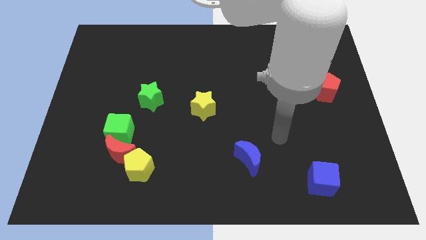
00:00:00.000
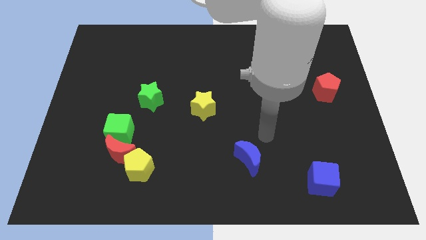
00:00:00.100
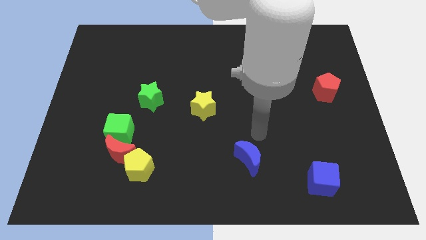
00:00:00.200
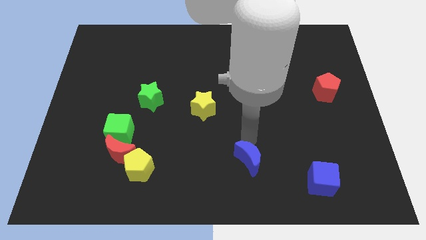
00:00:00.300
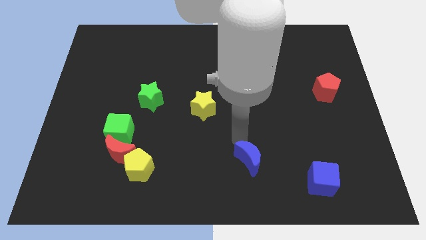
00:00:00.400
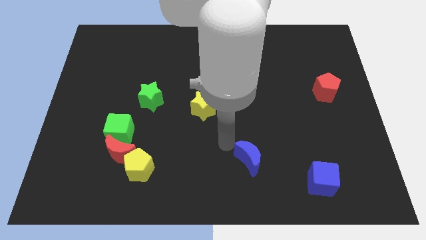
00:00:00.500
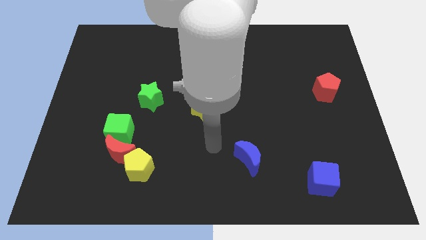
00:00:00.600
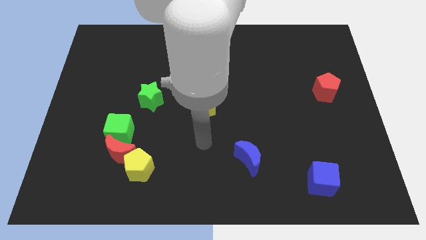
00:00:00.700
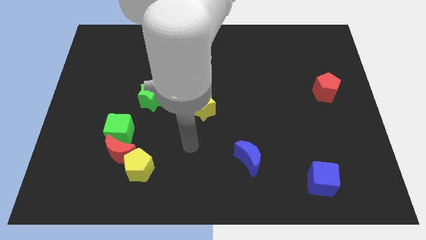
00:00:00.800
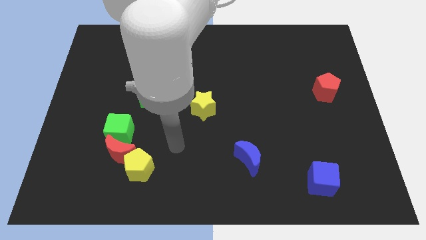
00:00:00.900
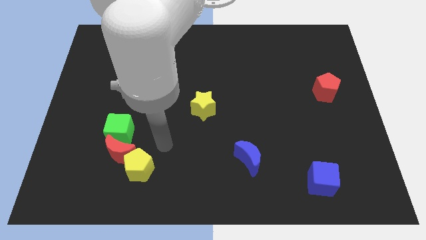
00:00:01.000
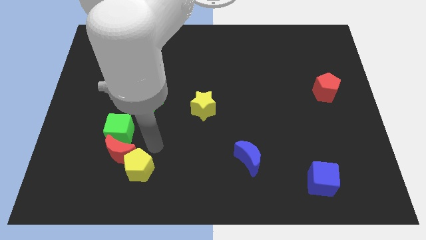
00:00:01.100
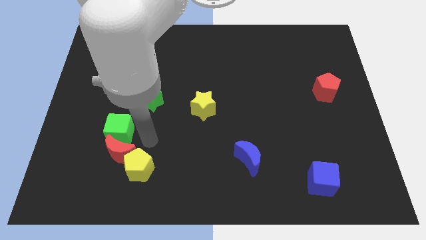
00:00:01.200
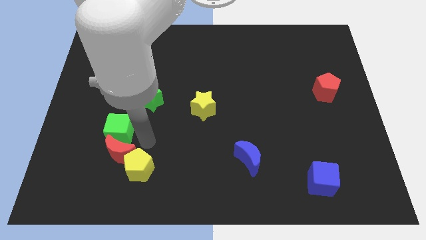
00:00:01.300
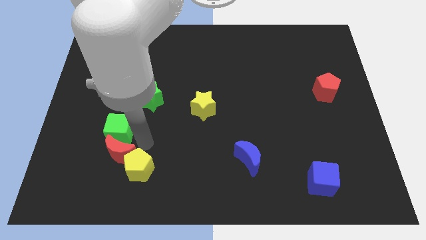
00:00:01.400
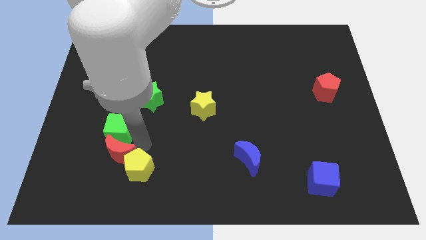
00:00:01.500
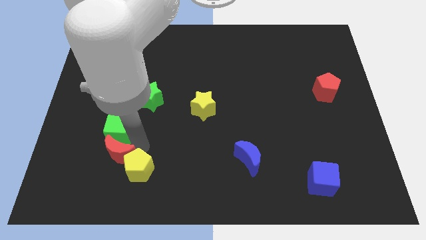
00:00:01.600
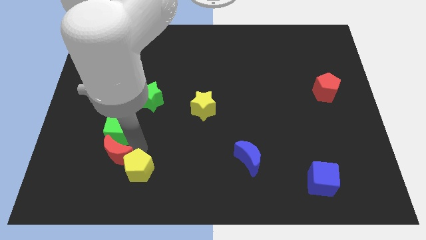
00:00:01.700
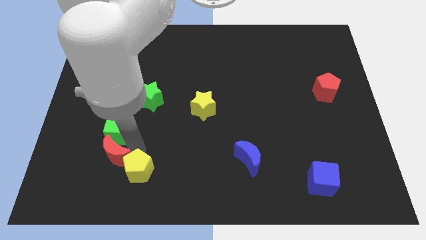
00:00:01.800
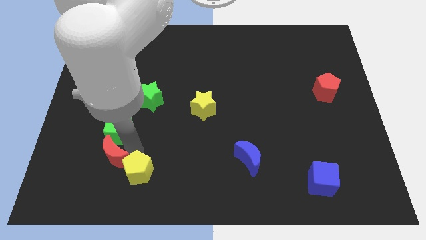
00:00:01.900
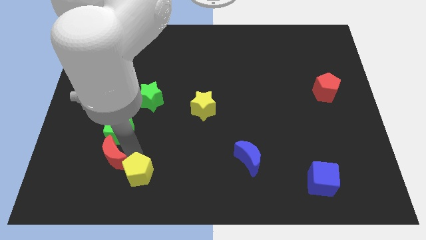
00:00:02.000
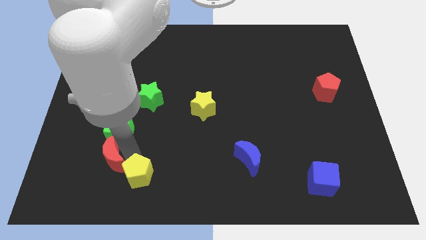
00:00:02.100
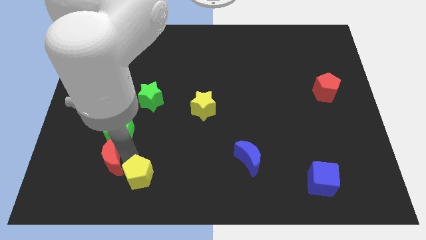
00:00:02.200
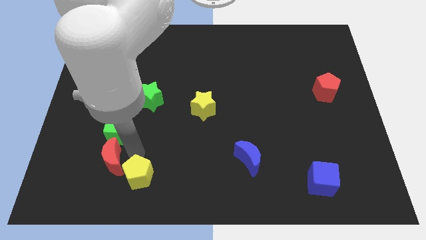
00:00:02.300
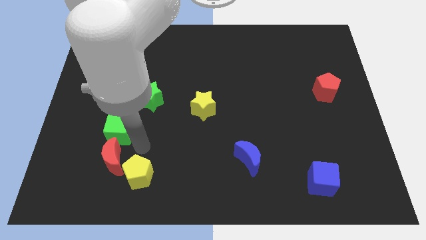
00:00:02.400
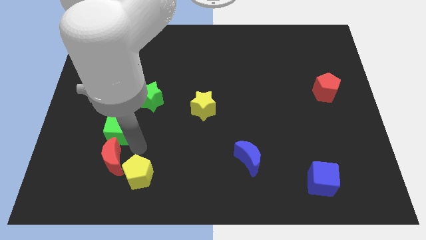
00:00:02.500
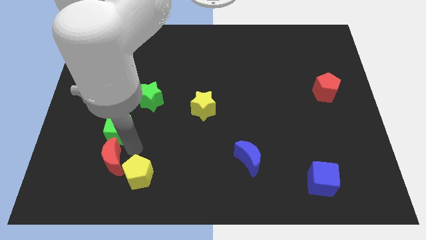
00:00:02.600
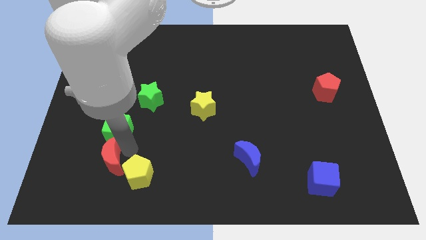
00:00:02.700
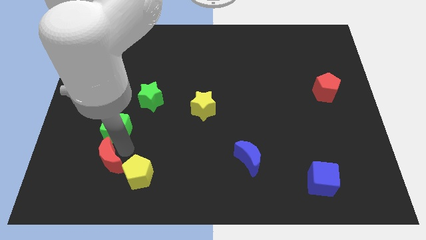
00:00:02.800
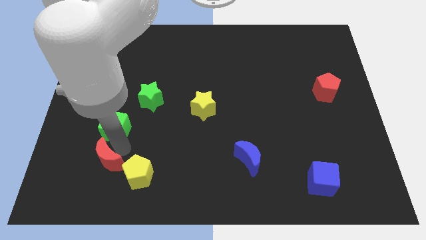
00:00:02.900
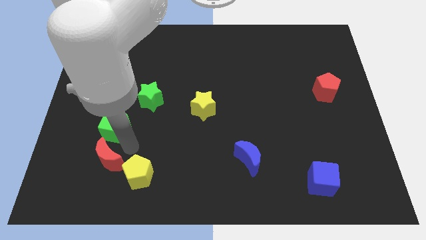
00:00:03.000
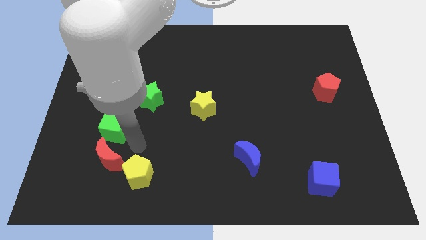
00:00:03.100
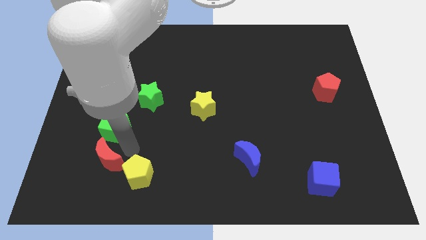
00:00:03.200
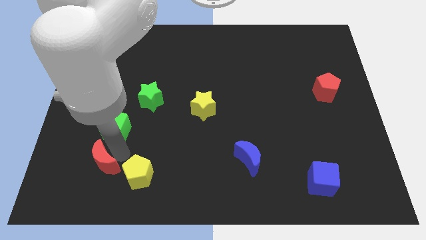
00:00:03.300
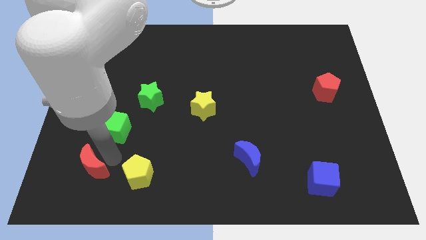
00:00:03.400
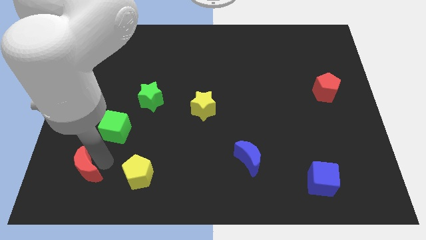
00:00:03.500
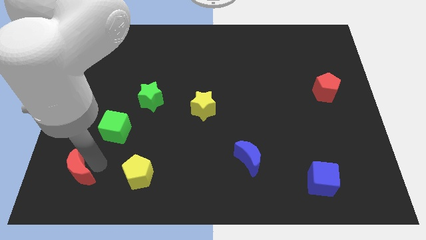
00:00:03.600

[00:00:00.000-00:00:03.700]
pull the red moon apart from the yellow pentagon and green cube

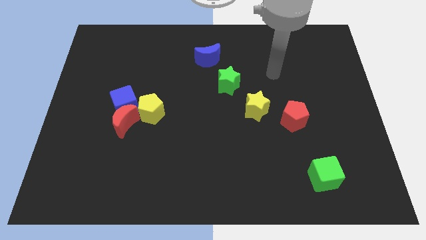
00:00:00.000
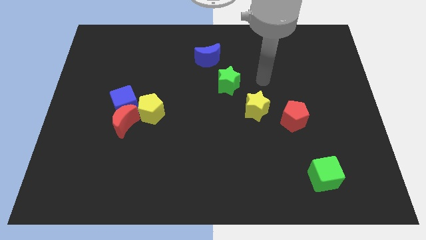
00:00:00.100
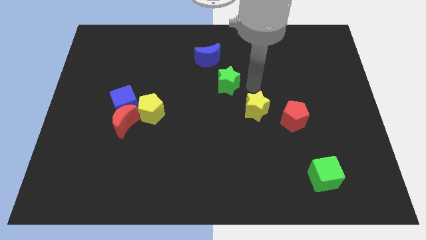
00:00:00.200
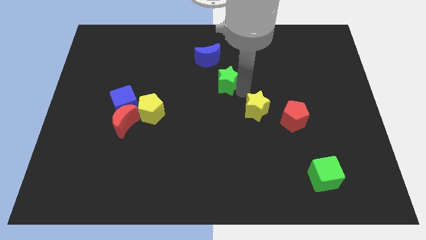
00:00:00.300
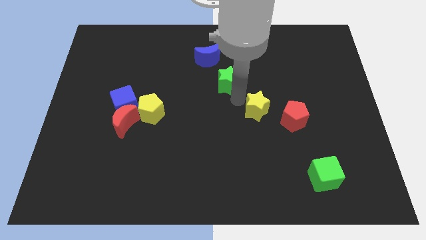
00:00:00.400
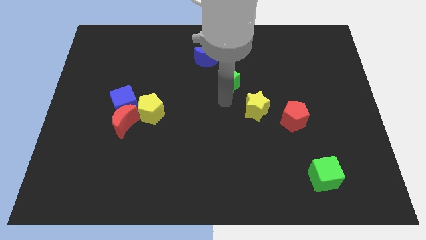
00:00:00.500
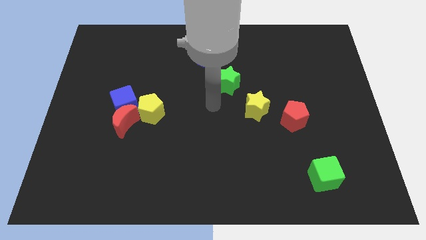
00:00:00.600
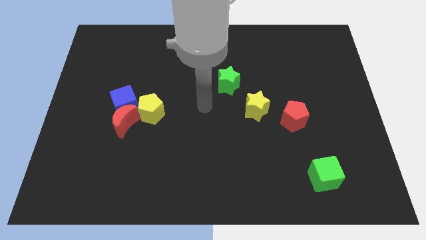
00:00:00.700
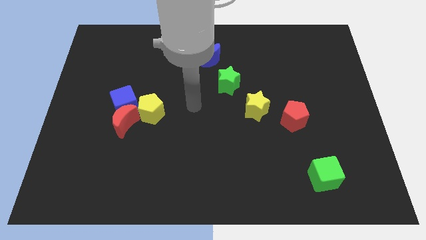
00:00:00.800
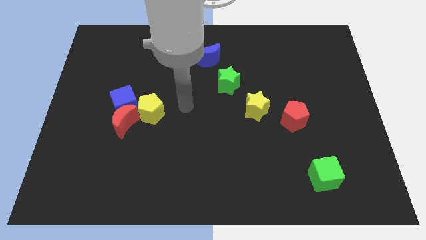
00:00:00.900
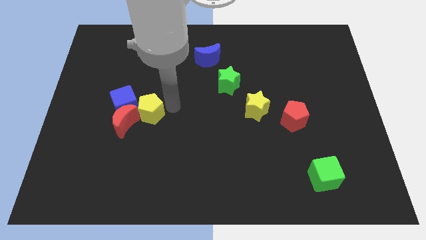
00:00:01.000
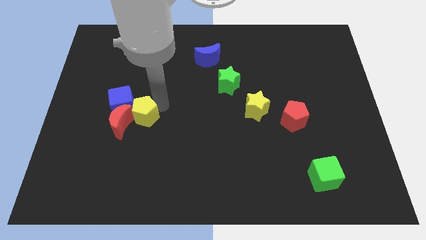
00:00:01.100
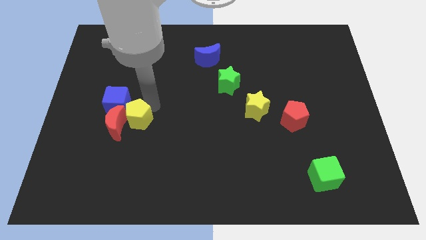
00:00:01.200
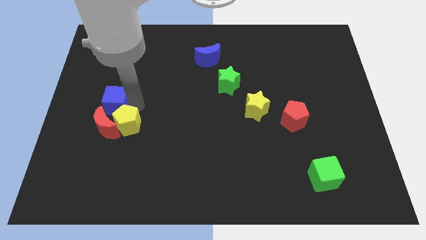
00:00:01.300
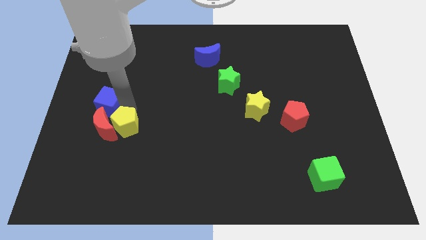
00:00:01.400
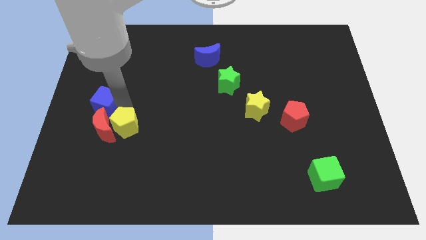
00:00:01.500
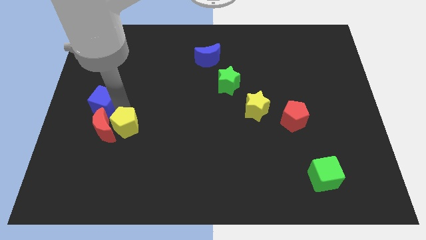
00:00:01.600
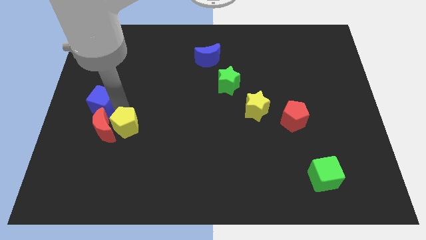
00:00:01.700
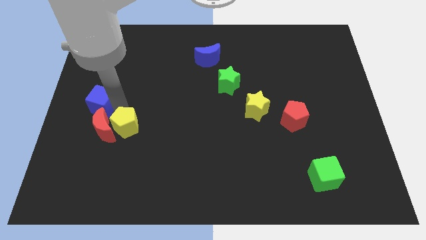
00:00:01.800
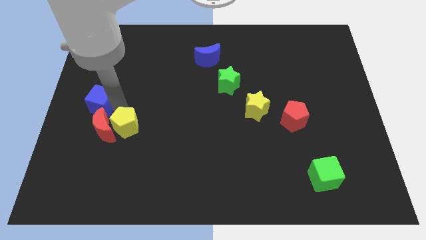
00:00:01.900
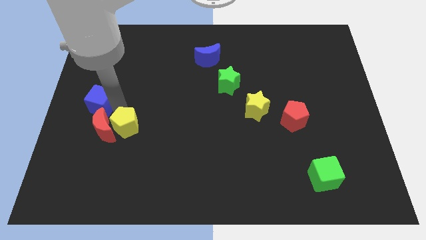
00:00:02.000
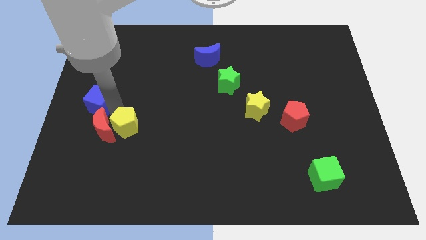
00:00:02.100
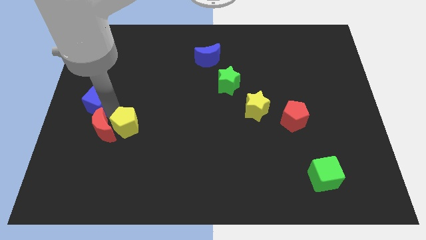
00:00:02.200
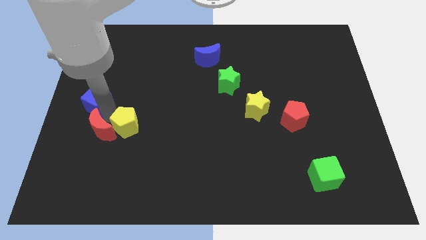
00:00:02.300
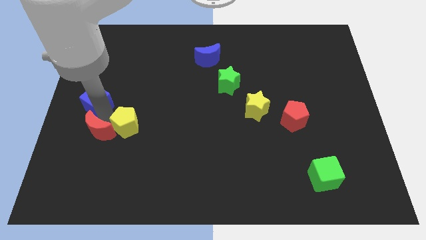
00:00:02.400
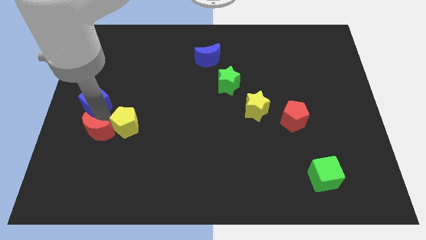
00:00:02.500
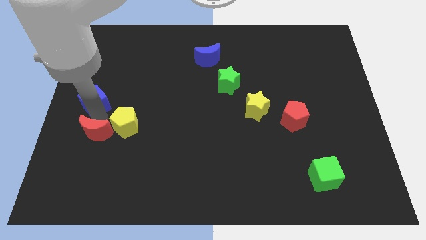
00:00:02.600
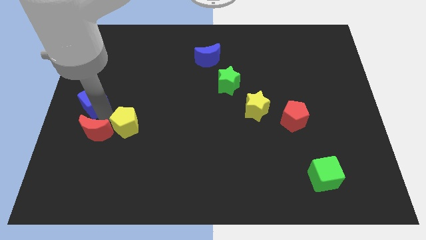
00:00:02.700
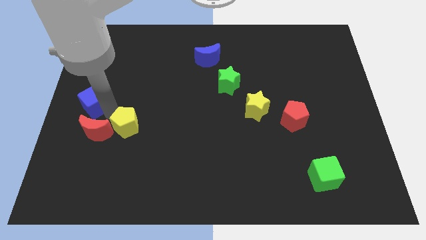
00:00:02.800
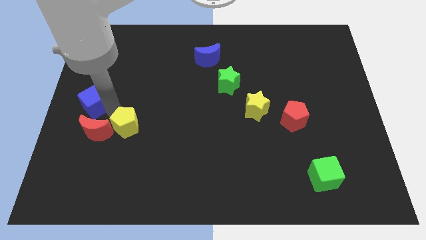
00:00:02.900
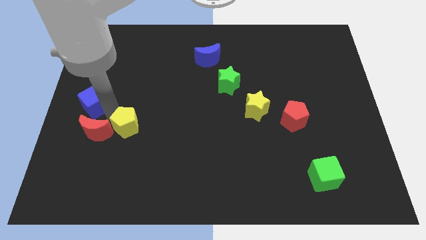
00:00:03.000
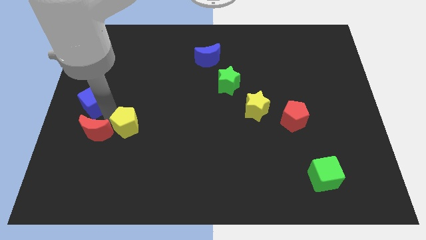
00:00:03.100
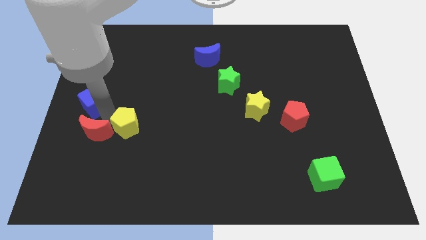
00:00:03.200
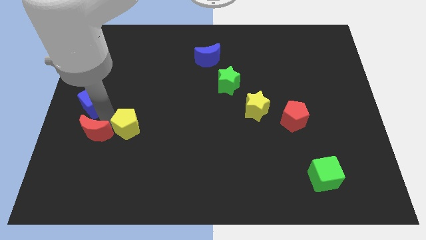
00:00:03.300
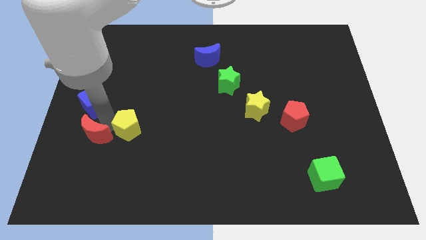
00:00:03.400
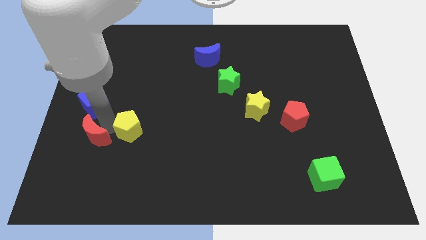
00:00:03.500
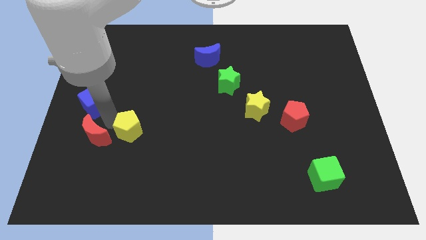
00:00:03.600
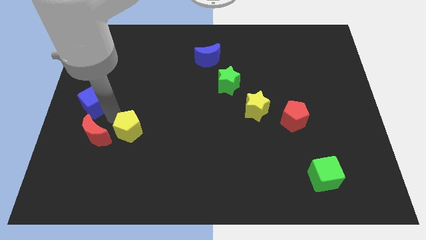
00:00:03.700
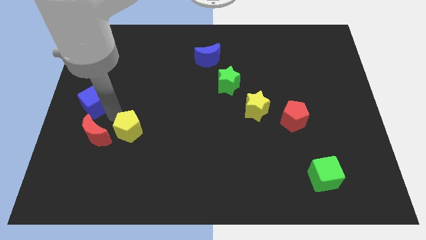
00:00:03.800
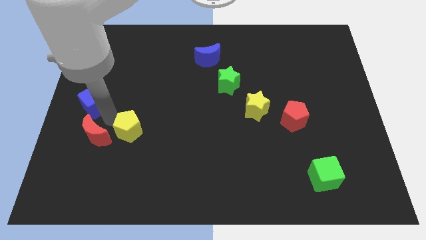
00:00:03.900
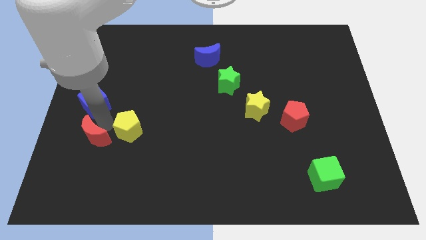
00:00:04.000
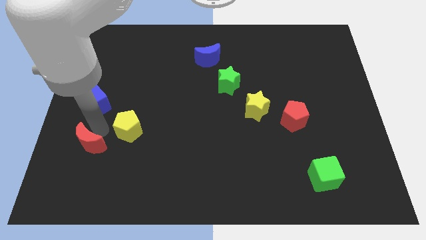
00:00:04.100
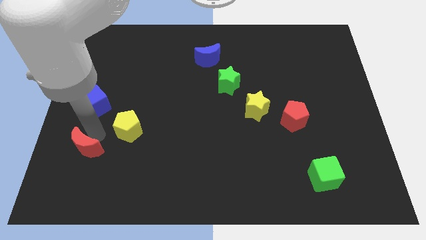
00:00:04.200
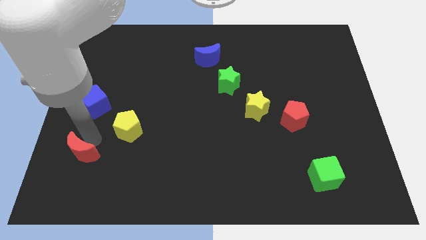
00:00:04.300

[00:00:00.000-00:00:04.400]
move the red moon away from the blue cube and yellow pentagon

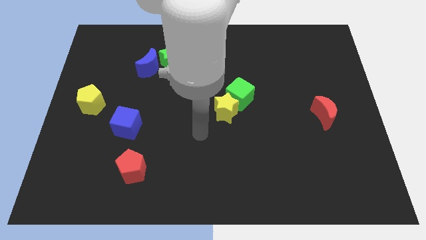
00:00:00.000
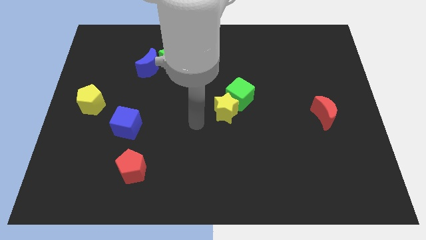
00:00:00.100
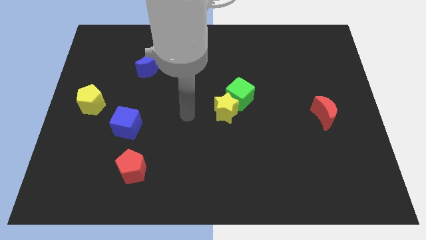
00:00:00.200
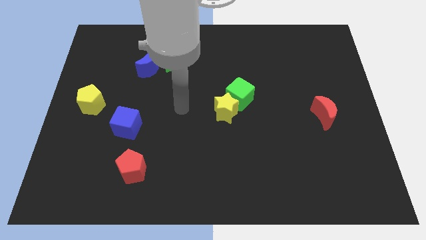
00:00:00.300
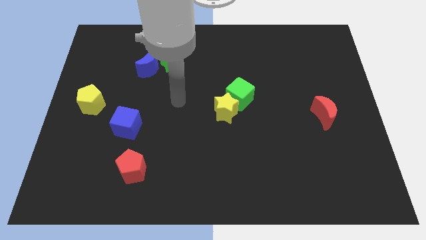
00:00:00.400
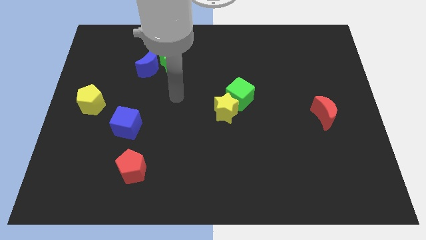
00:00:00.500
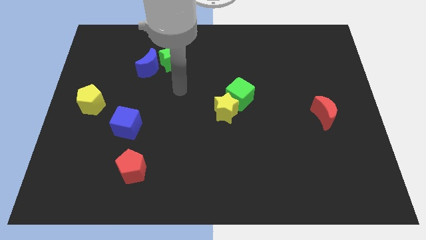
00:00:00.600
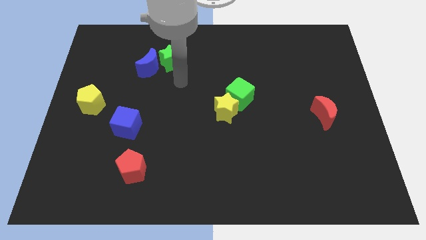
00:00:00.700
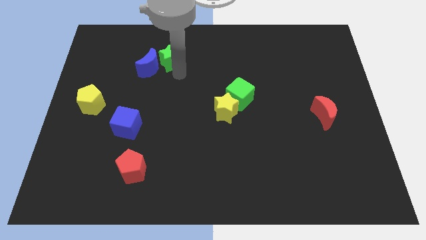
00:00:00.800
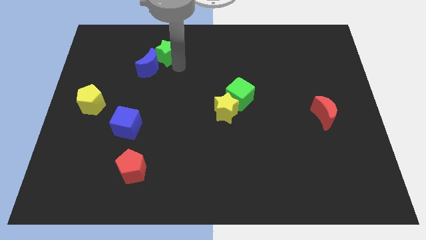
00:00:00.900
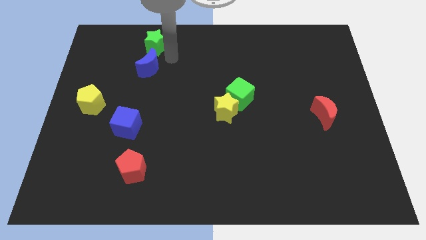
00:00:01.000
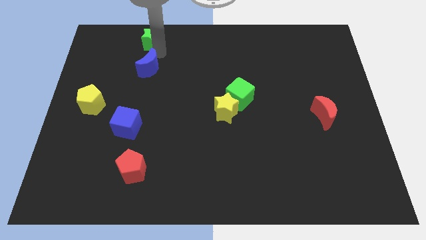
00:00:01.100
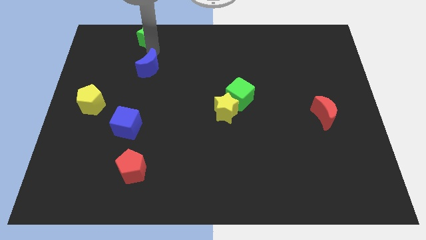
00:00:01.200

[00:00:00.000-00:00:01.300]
separate the blue moon from the green star
